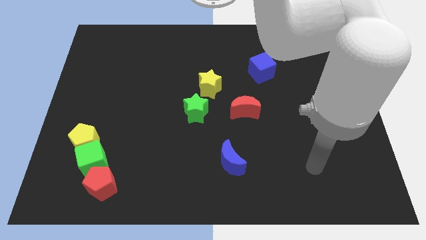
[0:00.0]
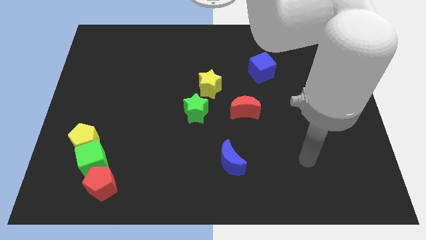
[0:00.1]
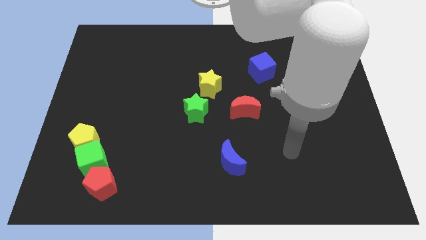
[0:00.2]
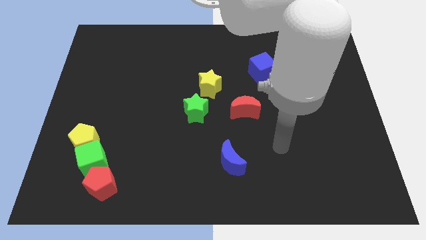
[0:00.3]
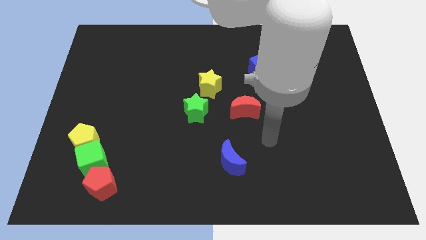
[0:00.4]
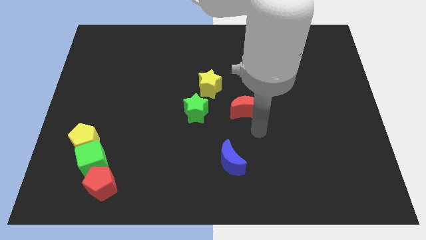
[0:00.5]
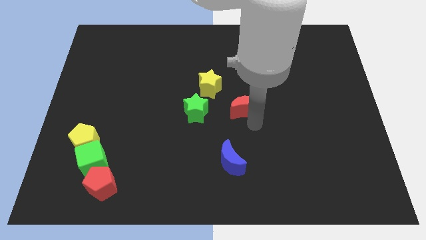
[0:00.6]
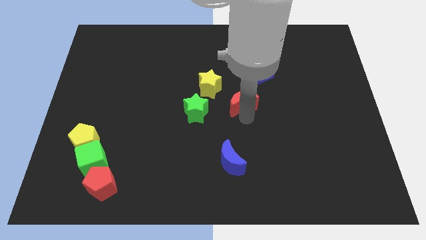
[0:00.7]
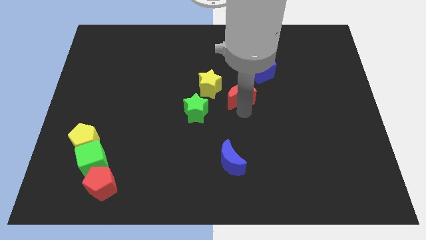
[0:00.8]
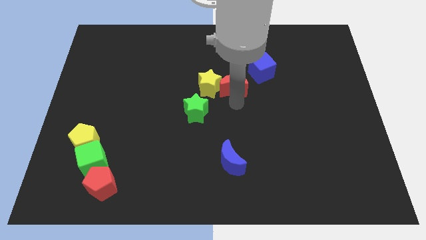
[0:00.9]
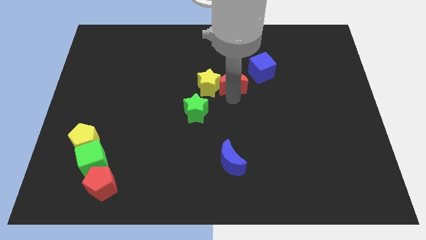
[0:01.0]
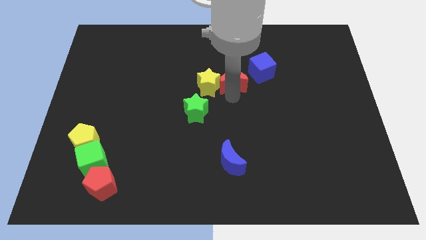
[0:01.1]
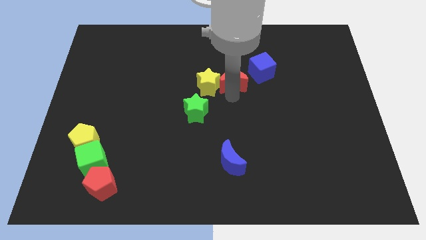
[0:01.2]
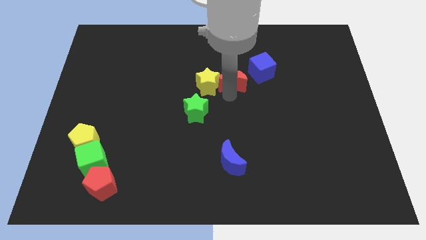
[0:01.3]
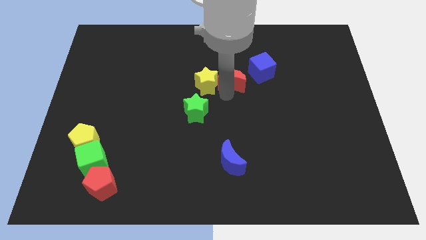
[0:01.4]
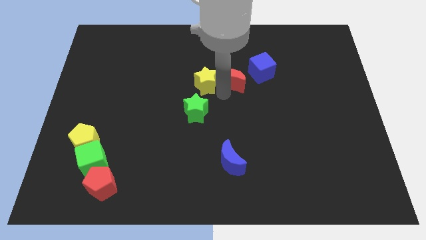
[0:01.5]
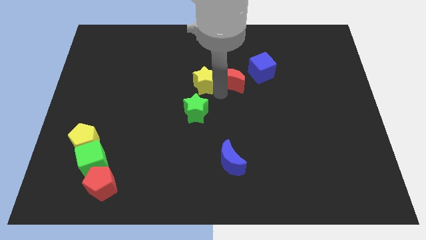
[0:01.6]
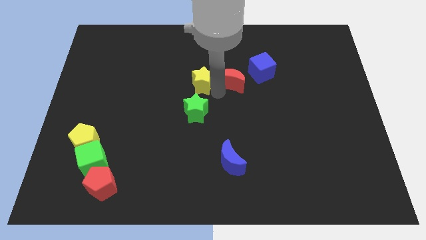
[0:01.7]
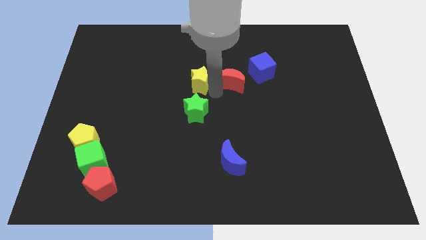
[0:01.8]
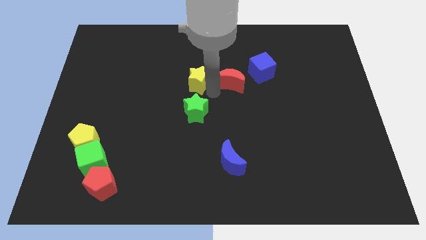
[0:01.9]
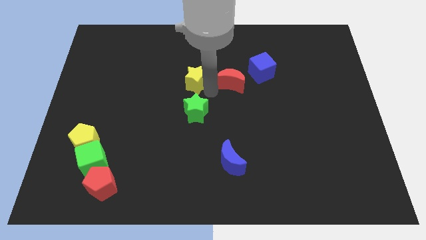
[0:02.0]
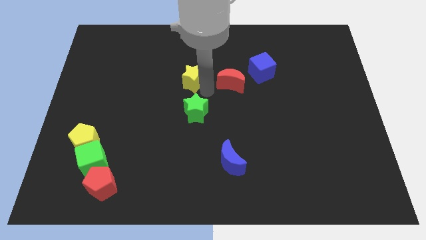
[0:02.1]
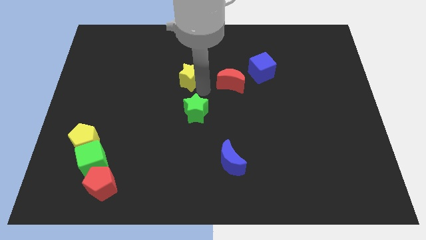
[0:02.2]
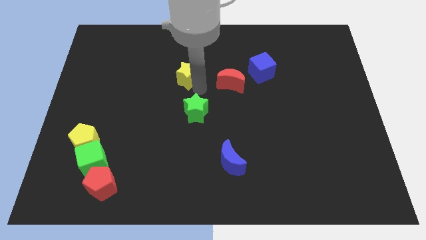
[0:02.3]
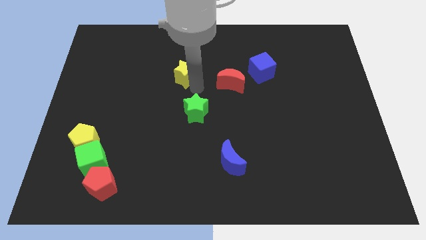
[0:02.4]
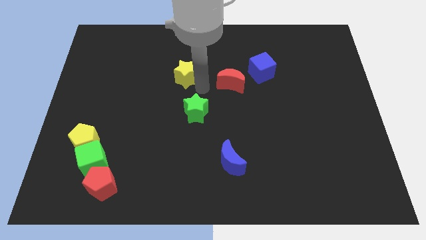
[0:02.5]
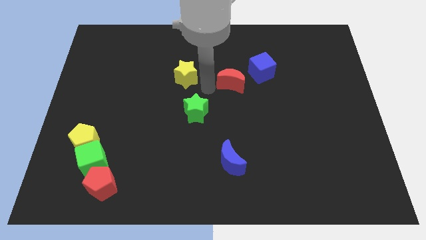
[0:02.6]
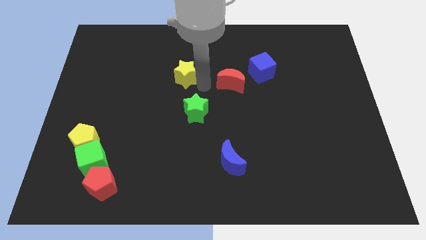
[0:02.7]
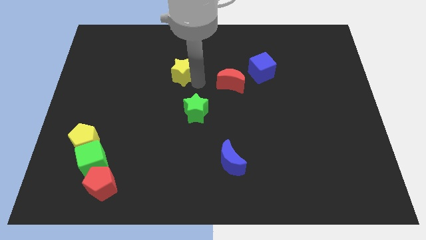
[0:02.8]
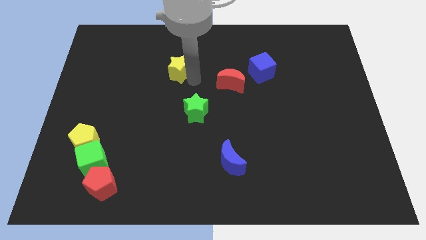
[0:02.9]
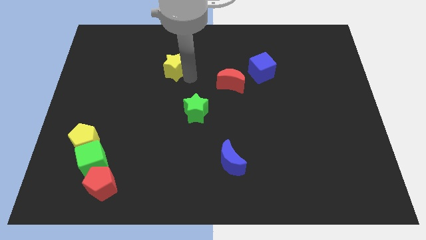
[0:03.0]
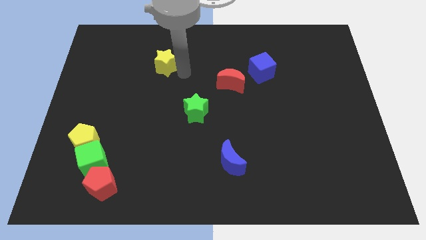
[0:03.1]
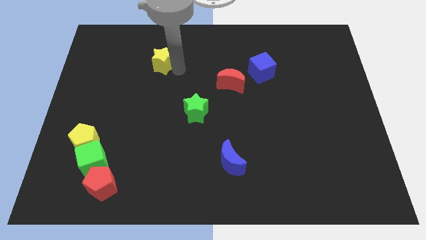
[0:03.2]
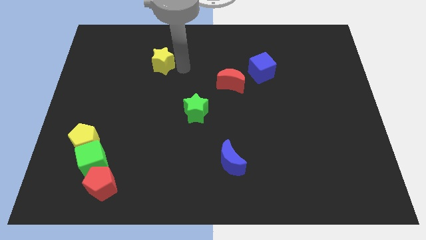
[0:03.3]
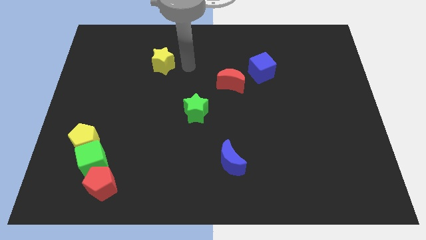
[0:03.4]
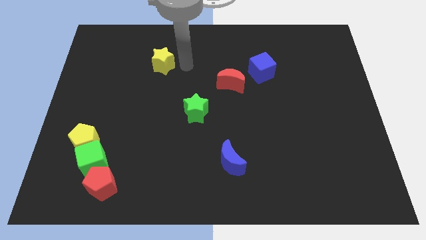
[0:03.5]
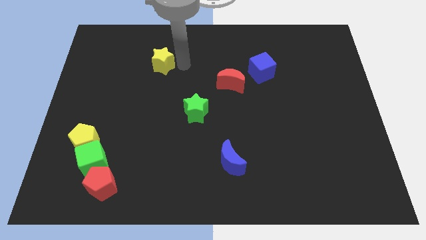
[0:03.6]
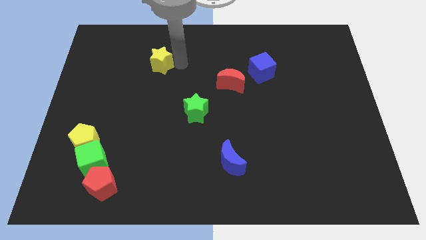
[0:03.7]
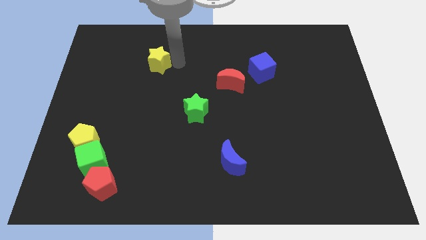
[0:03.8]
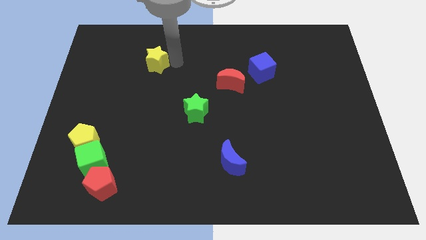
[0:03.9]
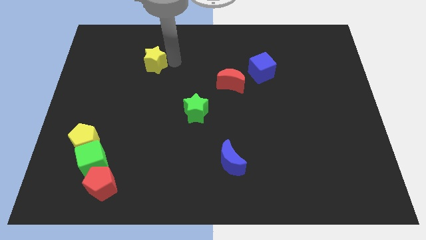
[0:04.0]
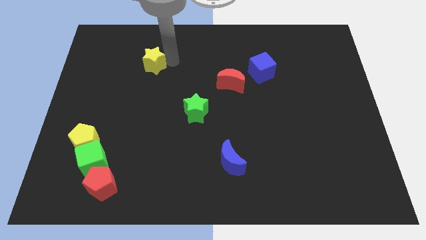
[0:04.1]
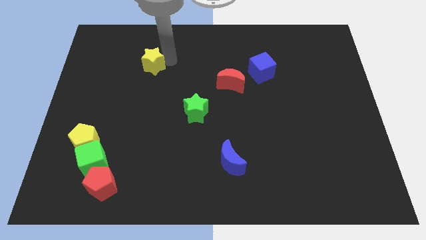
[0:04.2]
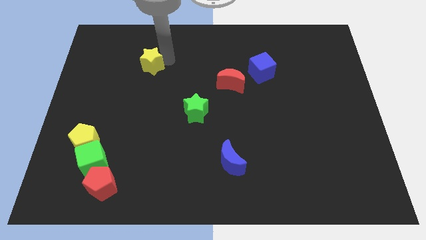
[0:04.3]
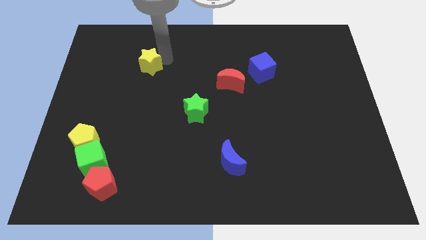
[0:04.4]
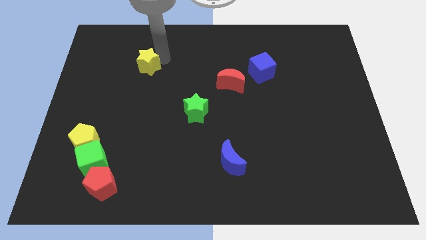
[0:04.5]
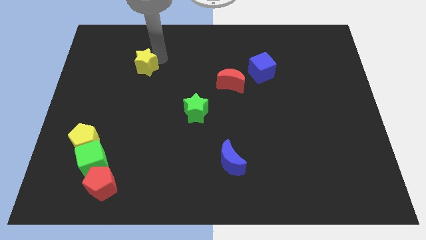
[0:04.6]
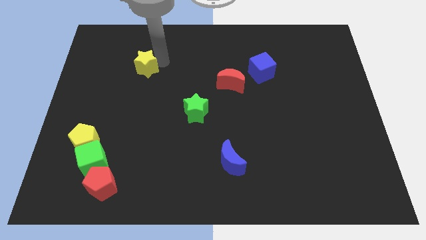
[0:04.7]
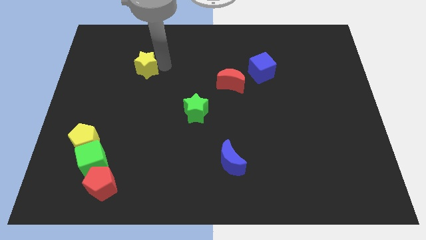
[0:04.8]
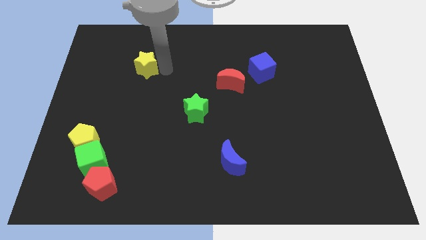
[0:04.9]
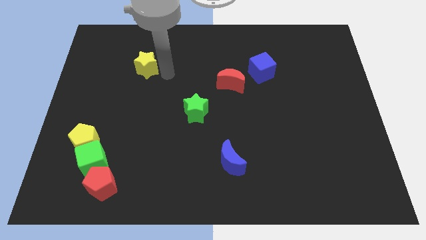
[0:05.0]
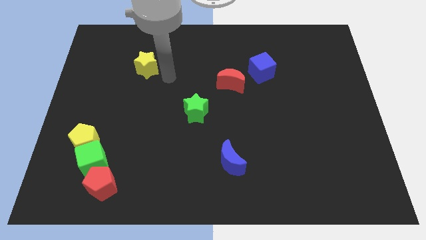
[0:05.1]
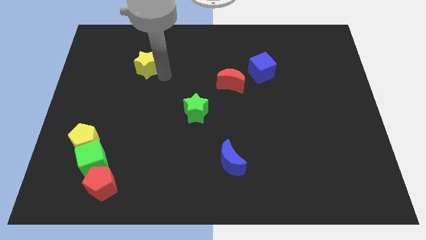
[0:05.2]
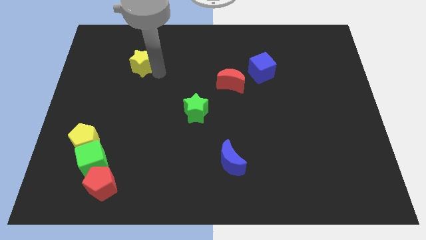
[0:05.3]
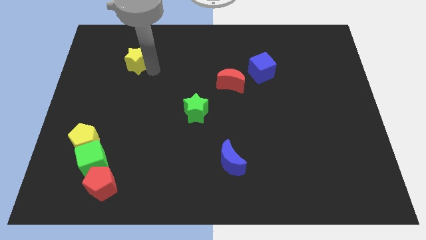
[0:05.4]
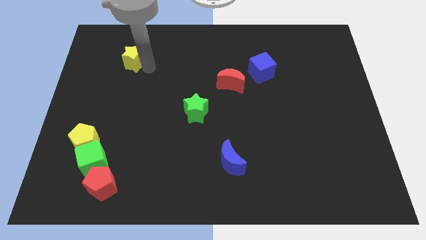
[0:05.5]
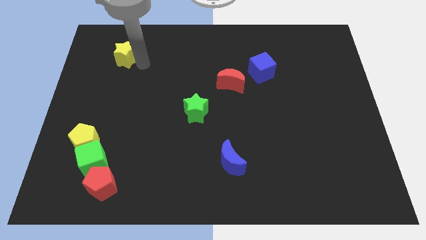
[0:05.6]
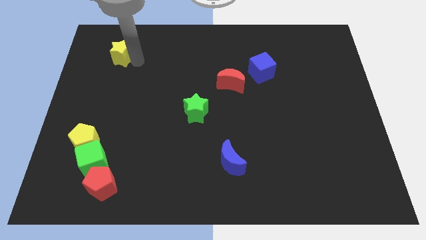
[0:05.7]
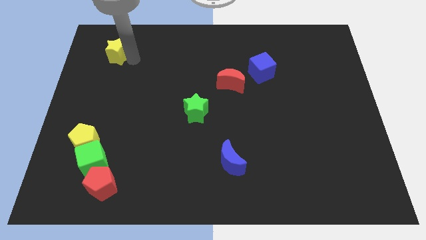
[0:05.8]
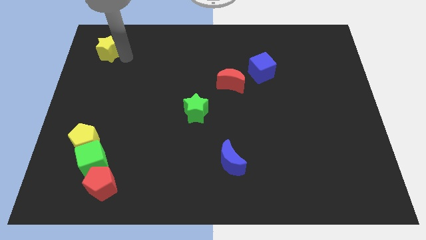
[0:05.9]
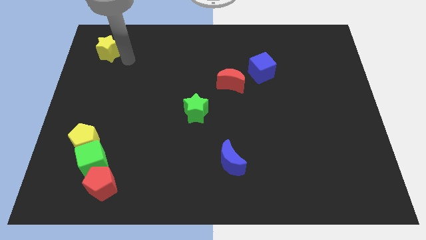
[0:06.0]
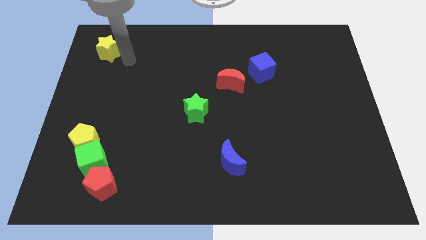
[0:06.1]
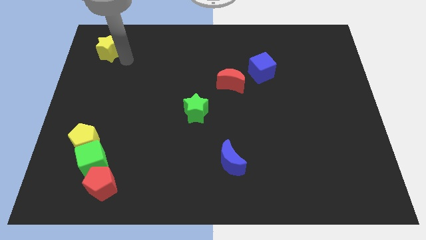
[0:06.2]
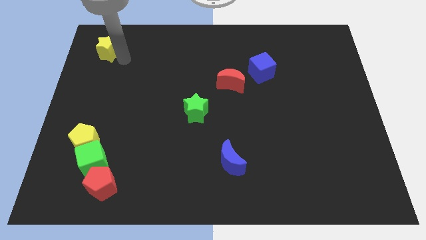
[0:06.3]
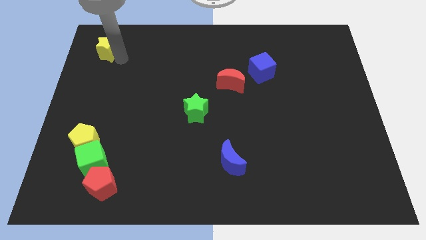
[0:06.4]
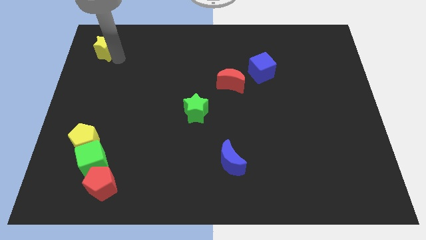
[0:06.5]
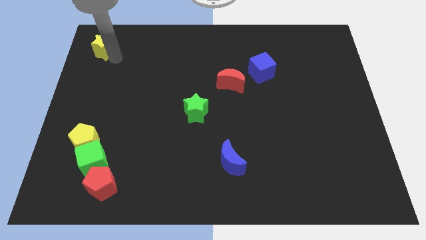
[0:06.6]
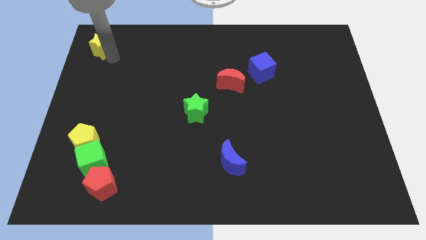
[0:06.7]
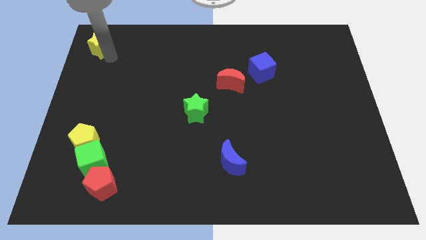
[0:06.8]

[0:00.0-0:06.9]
slide the yellow star to the upper left corner

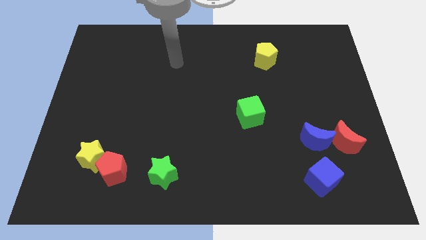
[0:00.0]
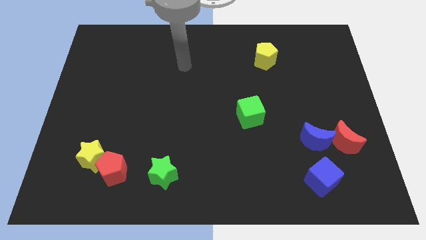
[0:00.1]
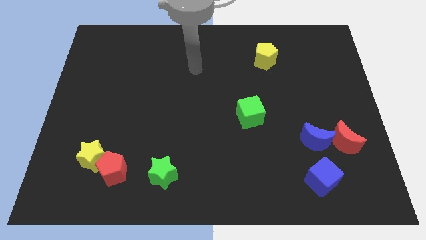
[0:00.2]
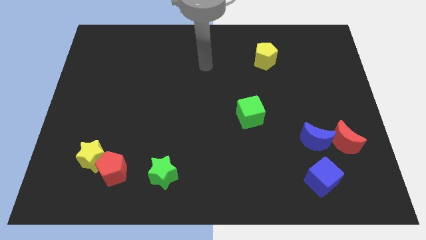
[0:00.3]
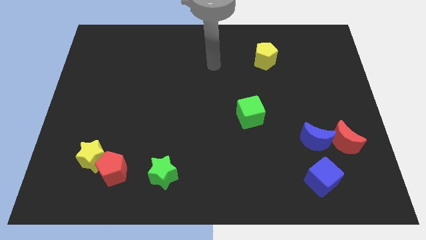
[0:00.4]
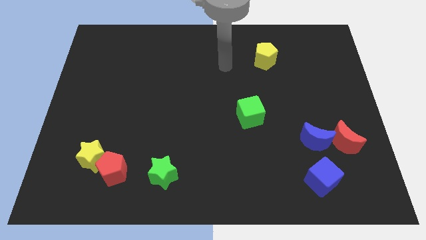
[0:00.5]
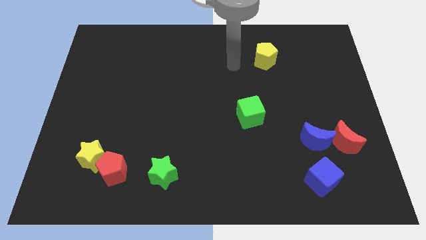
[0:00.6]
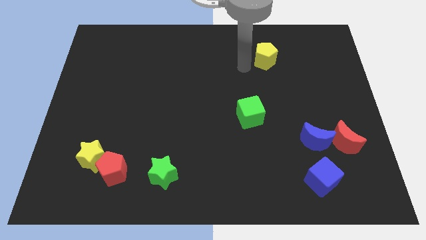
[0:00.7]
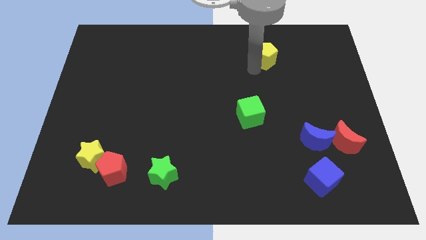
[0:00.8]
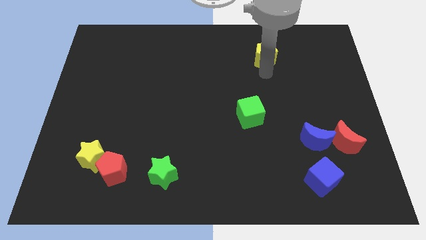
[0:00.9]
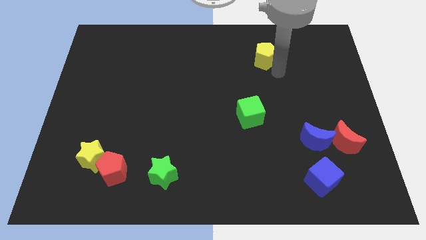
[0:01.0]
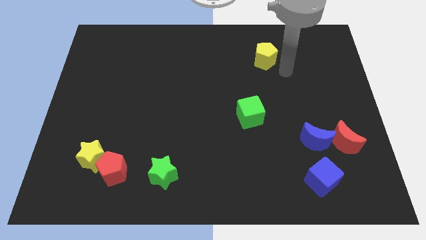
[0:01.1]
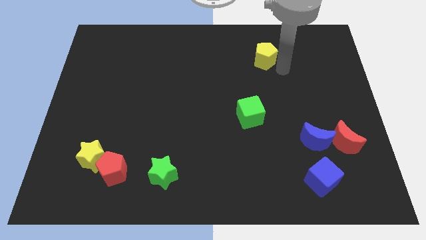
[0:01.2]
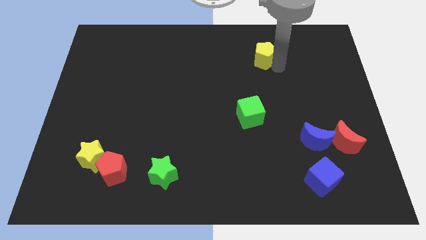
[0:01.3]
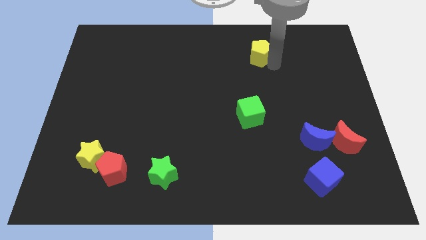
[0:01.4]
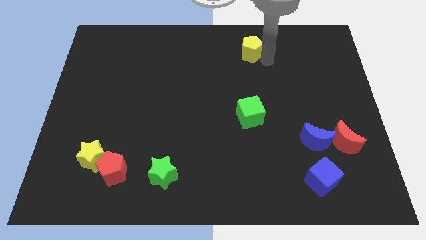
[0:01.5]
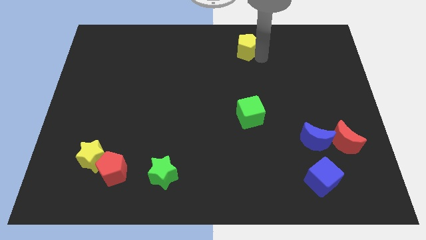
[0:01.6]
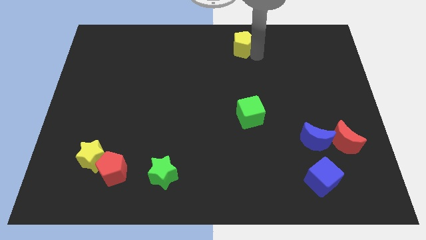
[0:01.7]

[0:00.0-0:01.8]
push the yellow pentagon to the top
